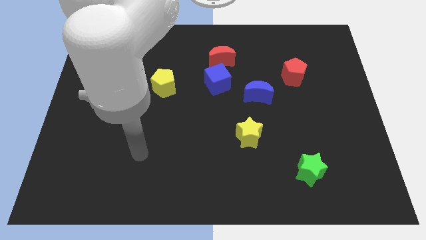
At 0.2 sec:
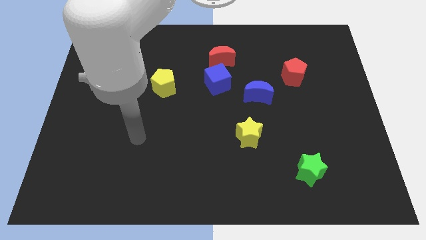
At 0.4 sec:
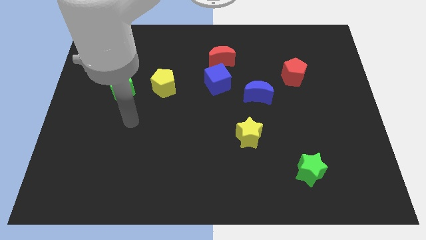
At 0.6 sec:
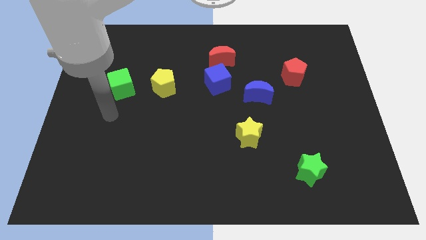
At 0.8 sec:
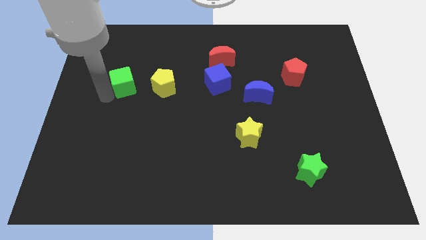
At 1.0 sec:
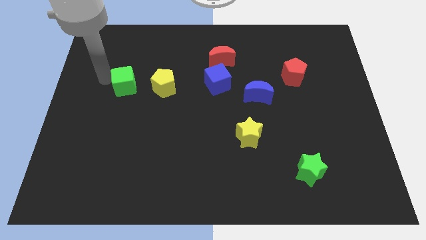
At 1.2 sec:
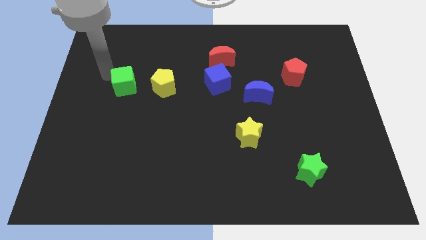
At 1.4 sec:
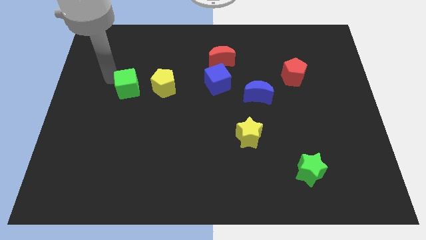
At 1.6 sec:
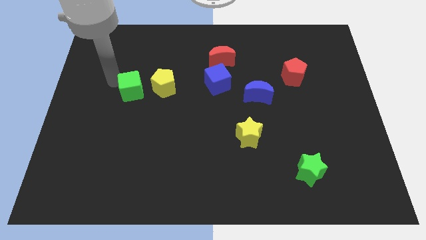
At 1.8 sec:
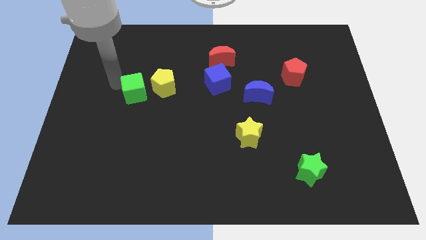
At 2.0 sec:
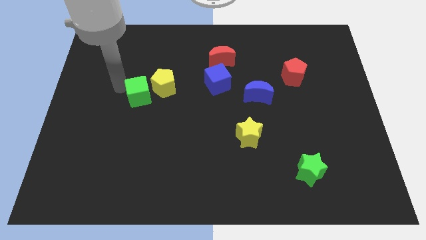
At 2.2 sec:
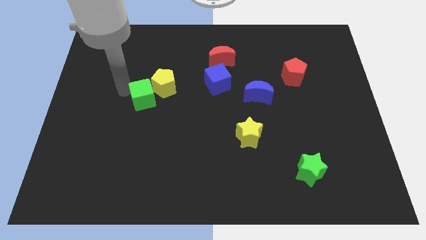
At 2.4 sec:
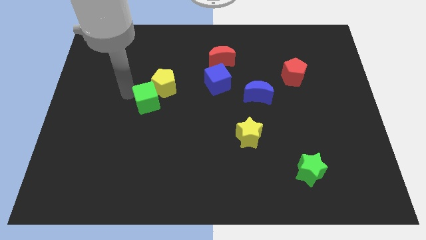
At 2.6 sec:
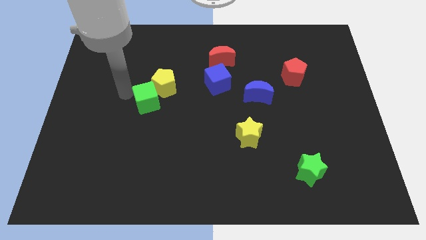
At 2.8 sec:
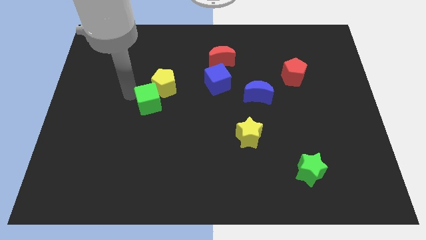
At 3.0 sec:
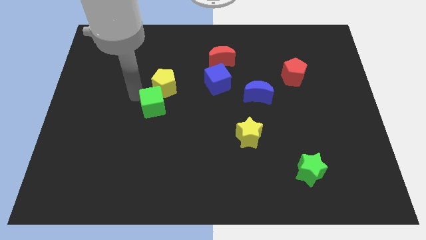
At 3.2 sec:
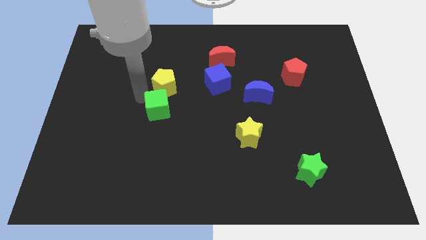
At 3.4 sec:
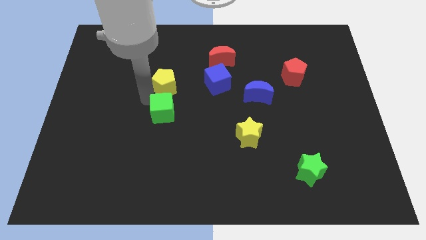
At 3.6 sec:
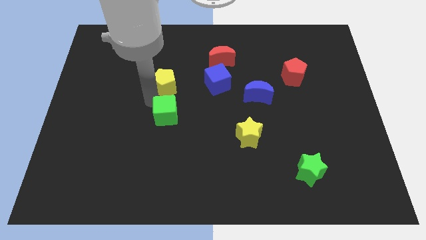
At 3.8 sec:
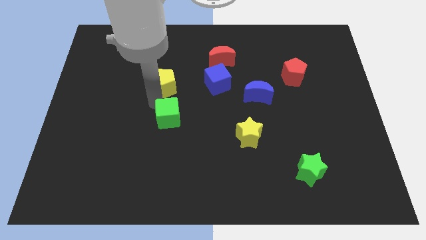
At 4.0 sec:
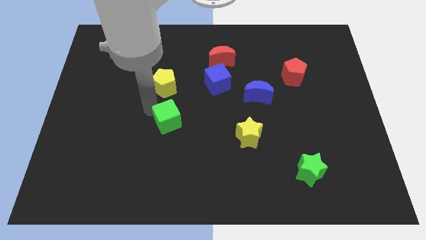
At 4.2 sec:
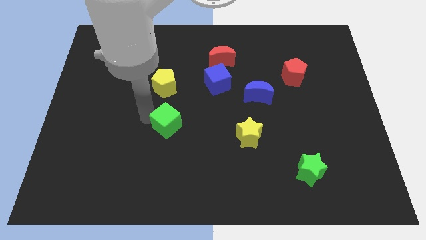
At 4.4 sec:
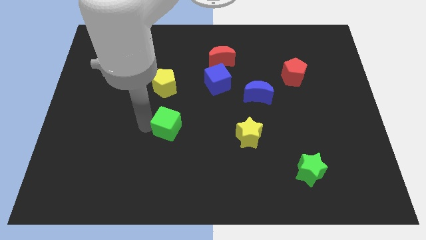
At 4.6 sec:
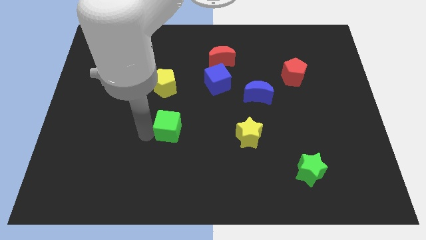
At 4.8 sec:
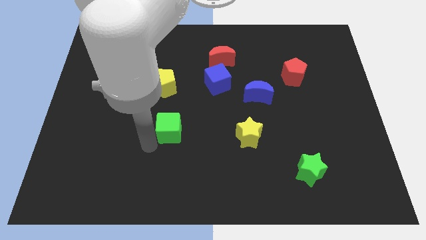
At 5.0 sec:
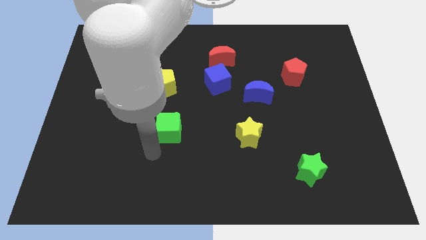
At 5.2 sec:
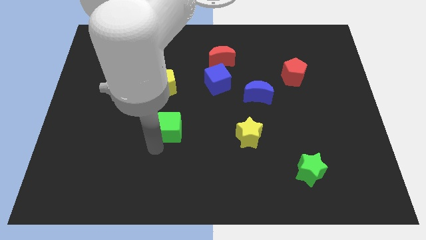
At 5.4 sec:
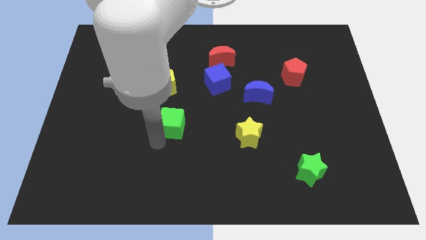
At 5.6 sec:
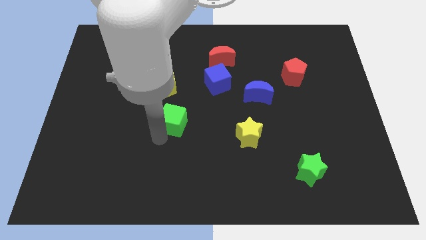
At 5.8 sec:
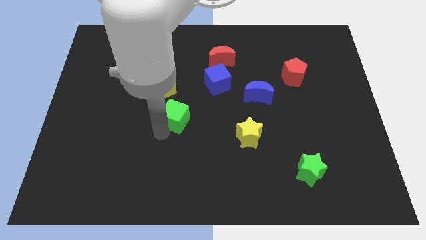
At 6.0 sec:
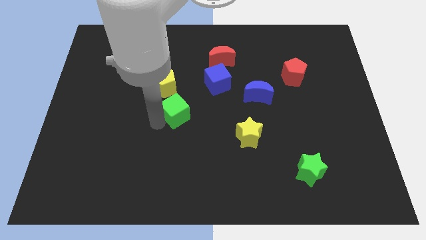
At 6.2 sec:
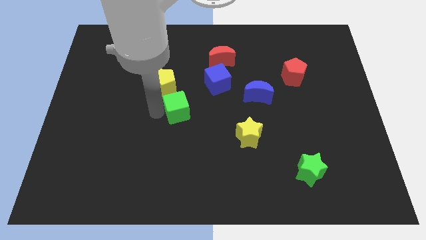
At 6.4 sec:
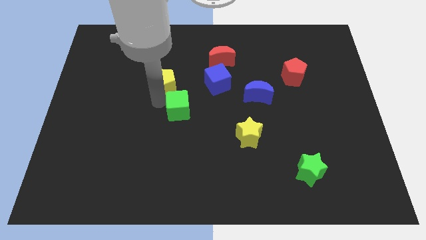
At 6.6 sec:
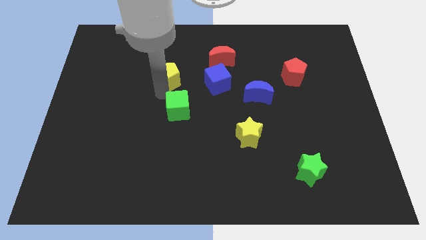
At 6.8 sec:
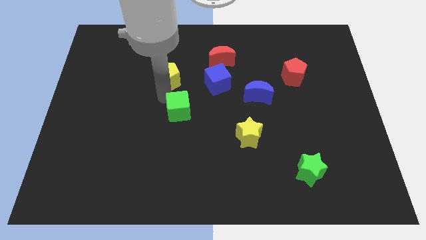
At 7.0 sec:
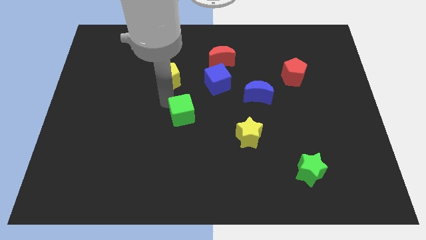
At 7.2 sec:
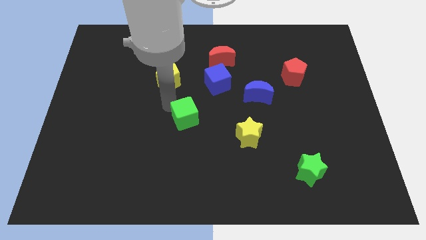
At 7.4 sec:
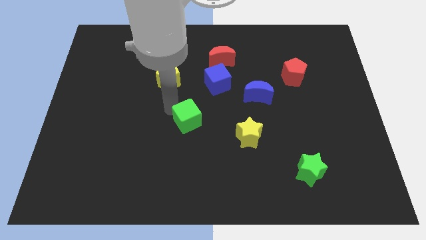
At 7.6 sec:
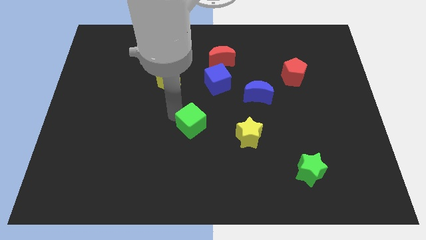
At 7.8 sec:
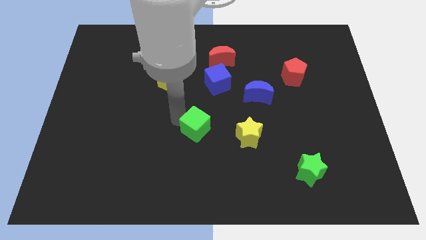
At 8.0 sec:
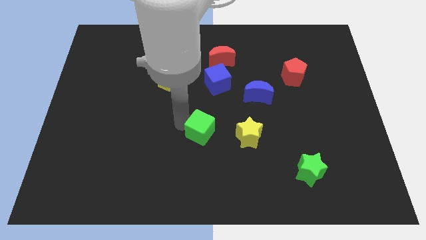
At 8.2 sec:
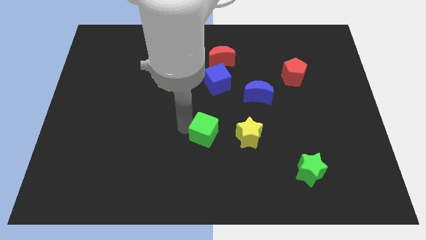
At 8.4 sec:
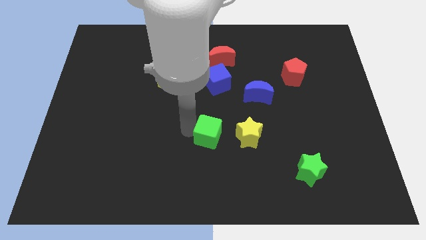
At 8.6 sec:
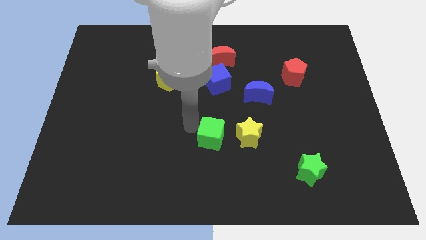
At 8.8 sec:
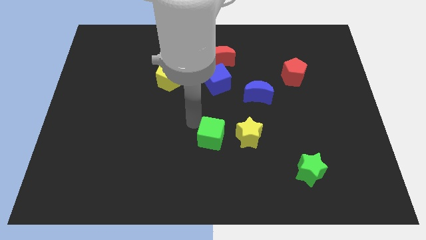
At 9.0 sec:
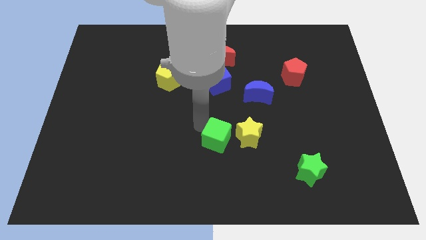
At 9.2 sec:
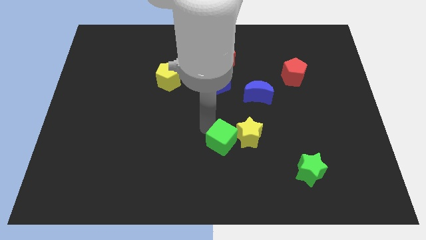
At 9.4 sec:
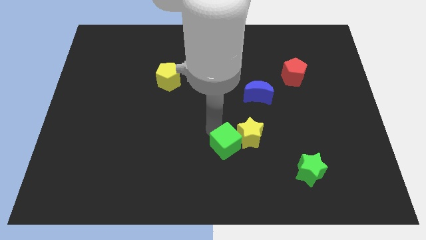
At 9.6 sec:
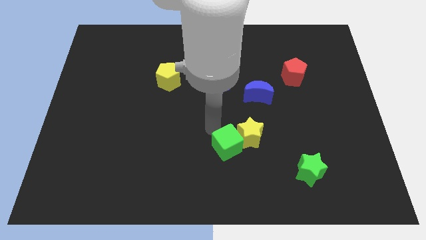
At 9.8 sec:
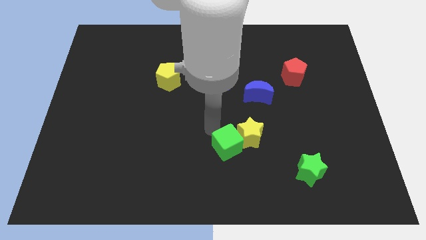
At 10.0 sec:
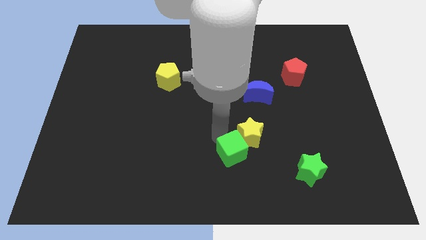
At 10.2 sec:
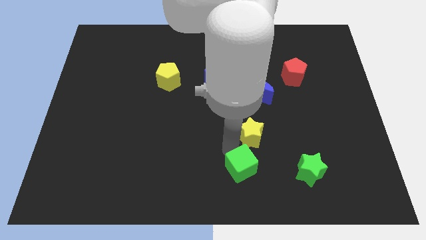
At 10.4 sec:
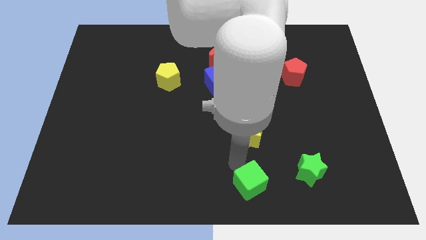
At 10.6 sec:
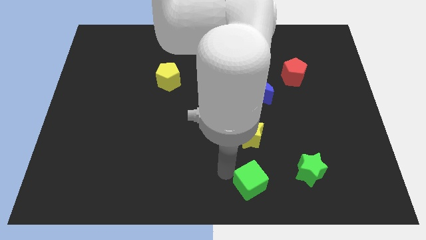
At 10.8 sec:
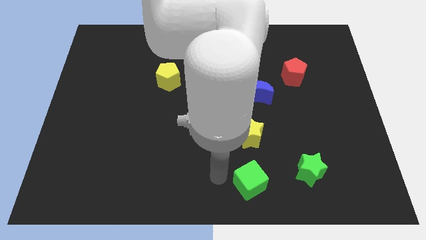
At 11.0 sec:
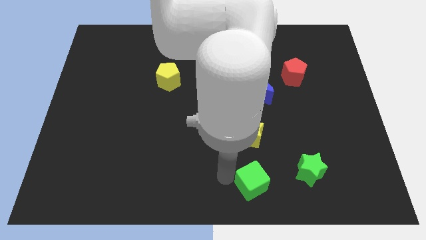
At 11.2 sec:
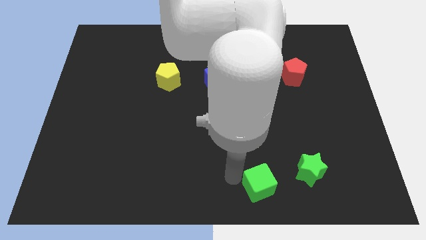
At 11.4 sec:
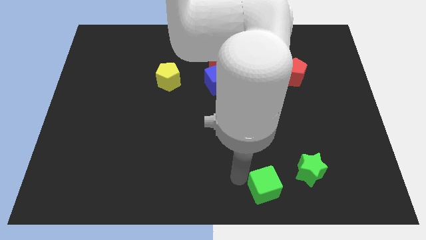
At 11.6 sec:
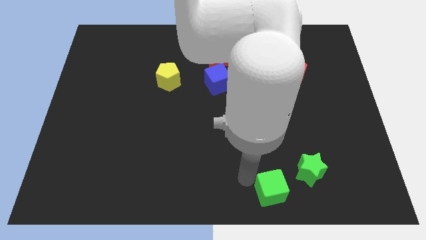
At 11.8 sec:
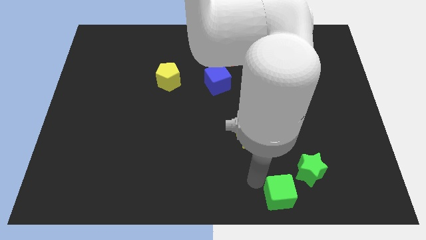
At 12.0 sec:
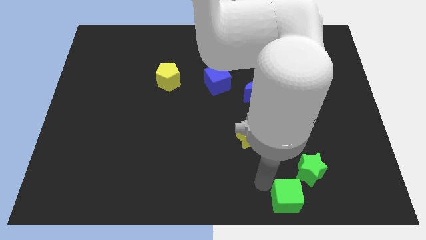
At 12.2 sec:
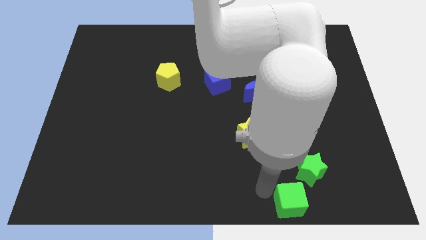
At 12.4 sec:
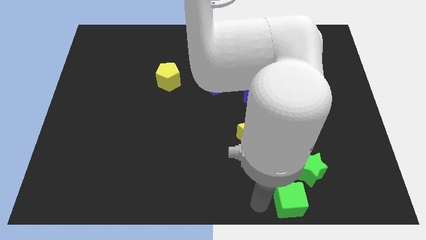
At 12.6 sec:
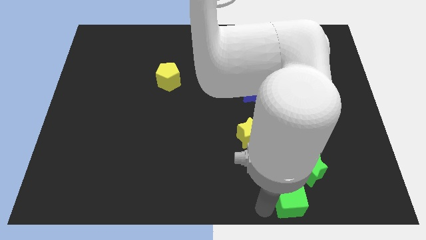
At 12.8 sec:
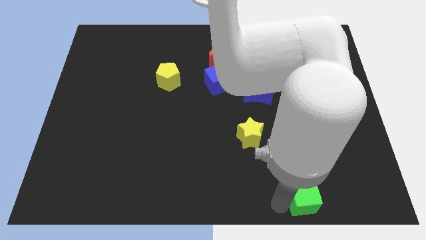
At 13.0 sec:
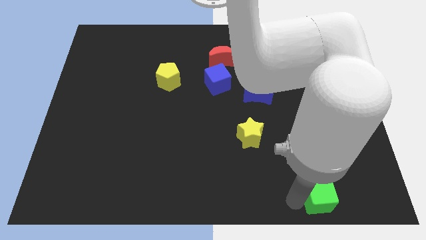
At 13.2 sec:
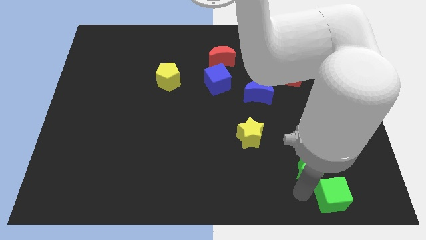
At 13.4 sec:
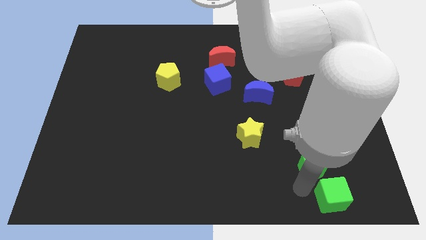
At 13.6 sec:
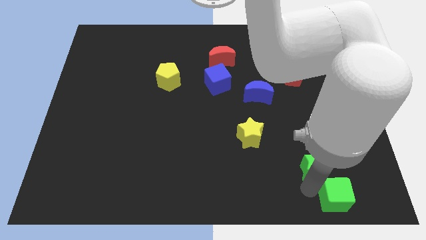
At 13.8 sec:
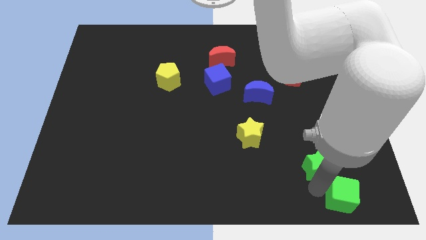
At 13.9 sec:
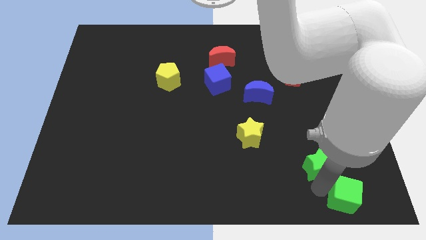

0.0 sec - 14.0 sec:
move the green cube to the bottom right corner
